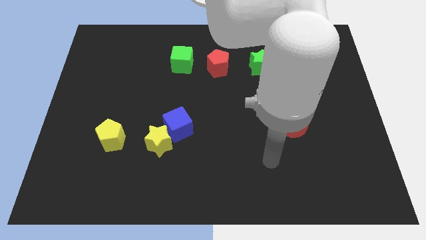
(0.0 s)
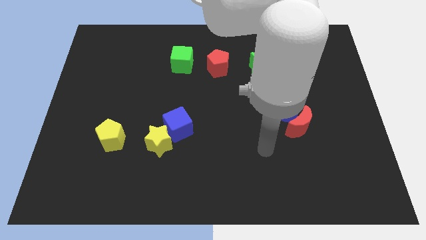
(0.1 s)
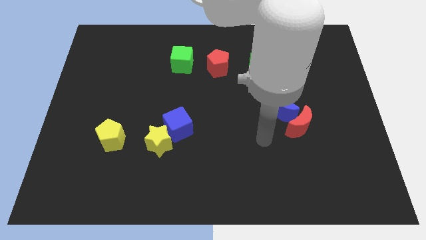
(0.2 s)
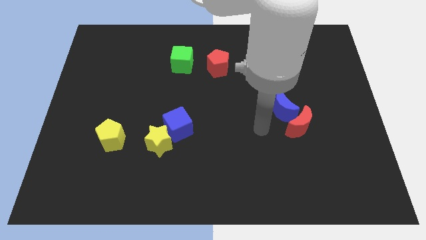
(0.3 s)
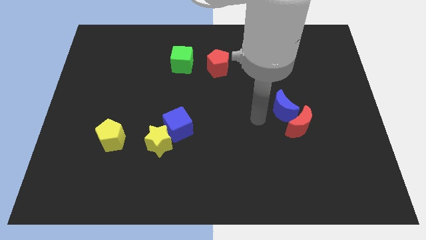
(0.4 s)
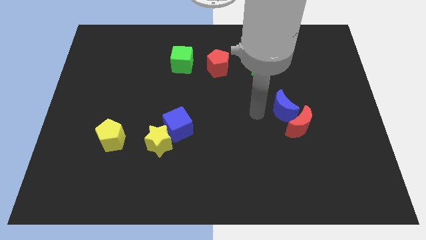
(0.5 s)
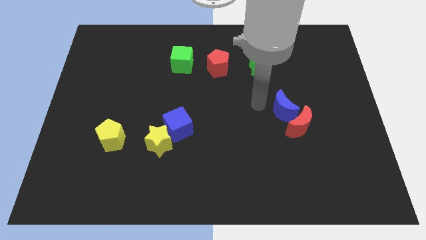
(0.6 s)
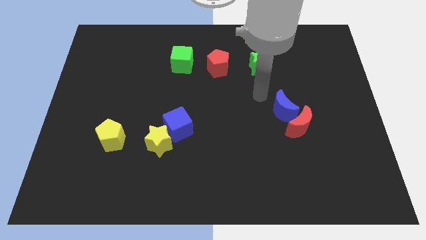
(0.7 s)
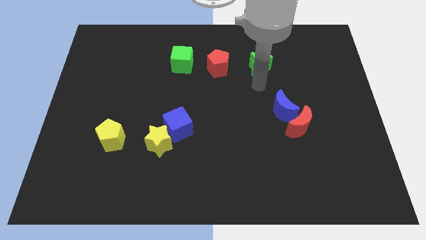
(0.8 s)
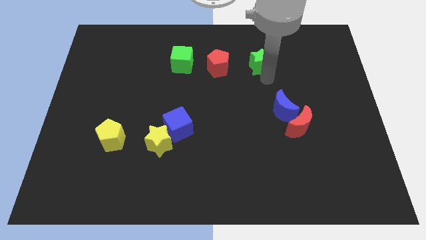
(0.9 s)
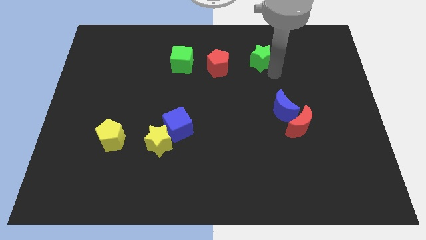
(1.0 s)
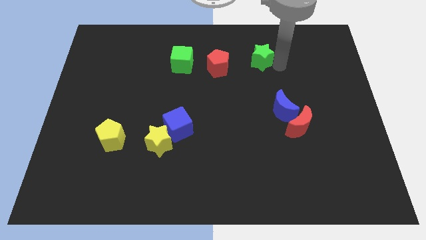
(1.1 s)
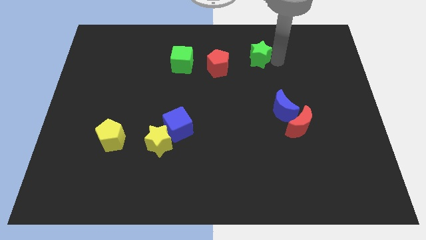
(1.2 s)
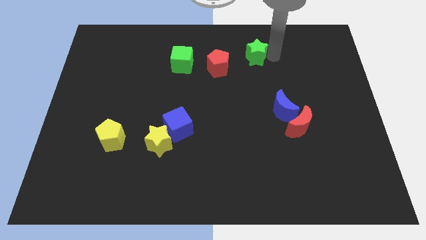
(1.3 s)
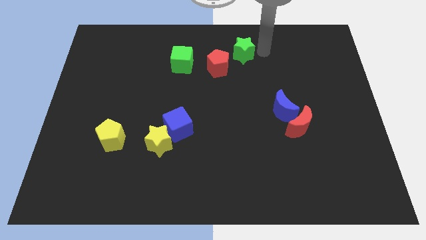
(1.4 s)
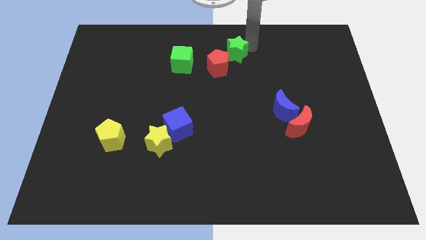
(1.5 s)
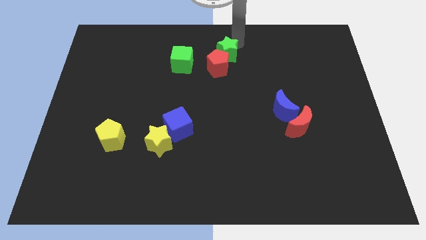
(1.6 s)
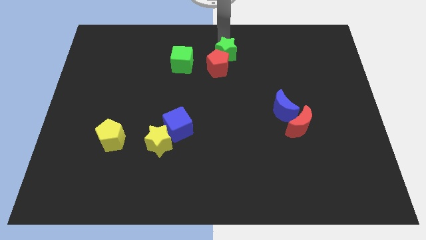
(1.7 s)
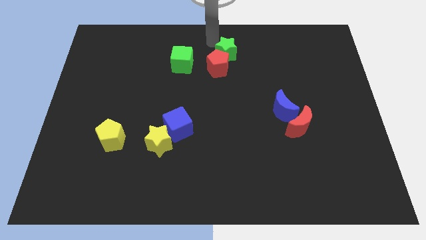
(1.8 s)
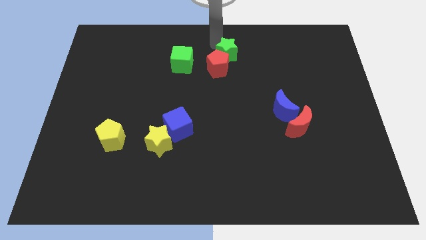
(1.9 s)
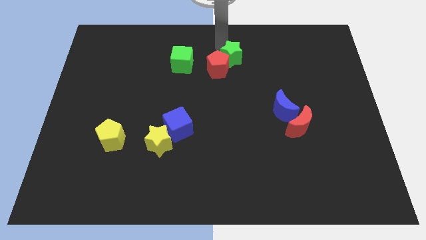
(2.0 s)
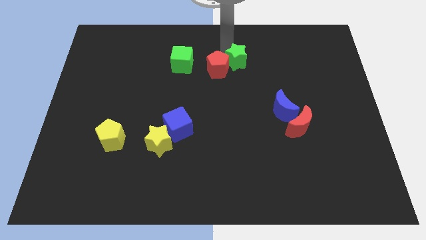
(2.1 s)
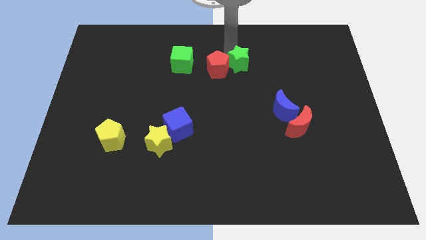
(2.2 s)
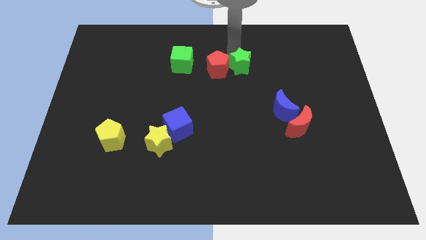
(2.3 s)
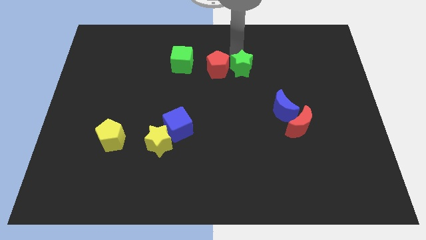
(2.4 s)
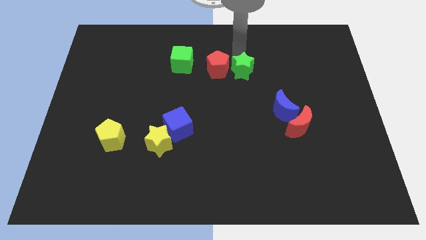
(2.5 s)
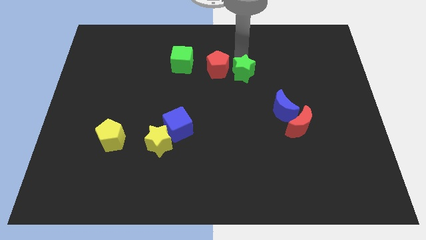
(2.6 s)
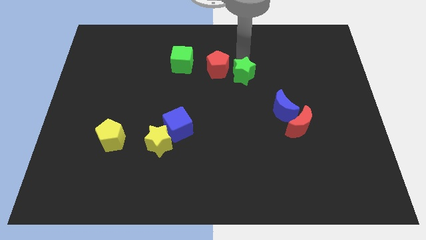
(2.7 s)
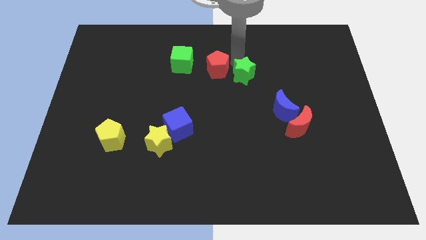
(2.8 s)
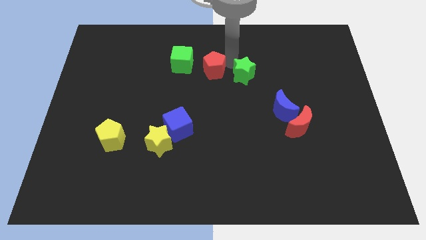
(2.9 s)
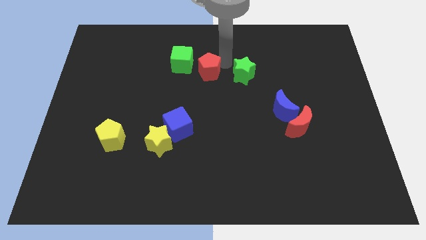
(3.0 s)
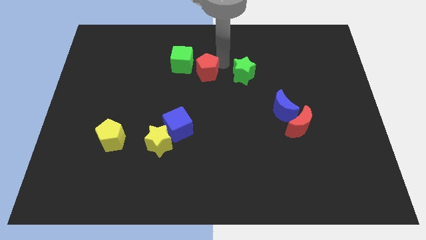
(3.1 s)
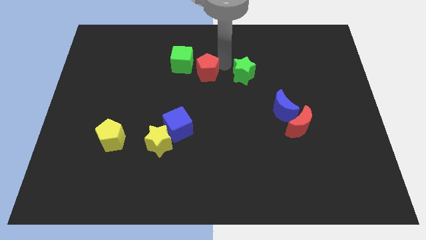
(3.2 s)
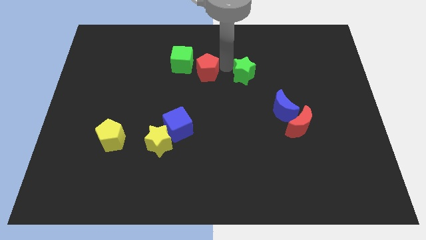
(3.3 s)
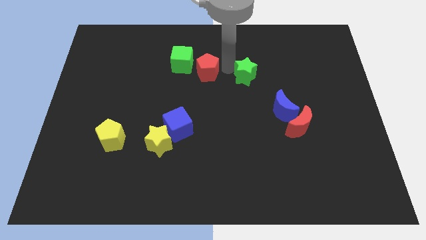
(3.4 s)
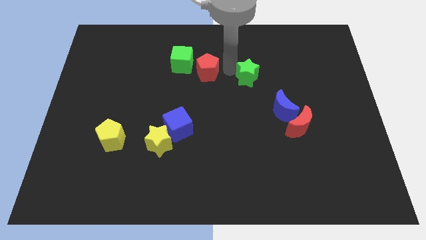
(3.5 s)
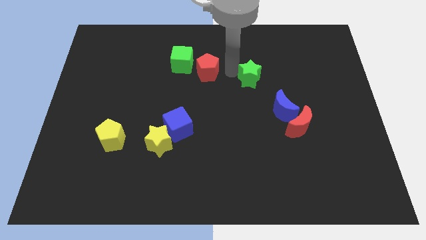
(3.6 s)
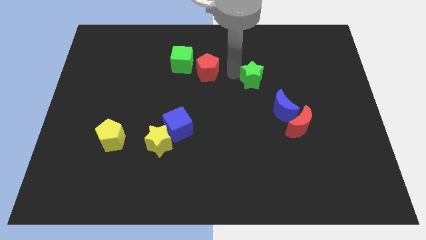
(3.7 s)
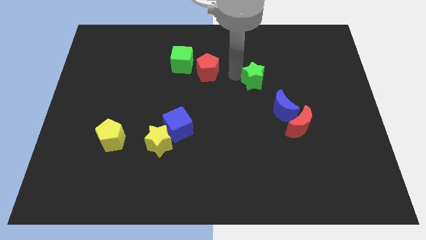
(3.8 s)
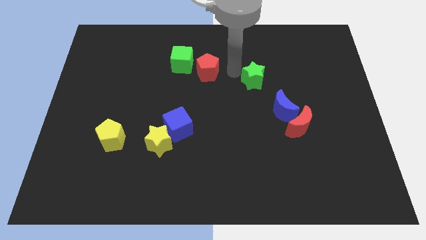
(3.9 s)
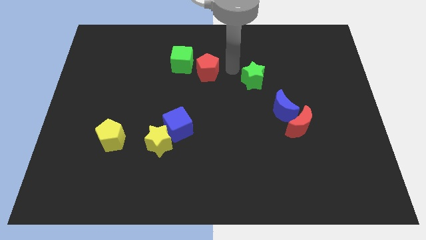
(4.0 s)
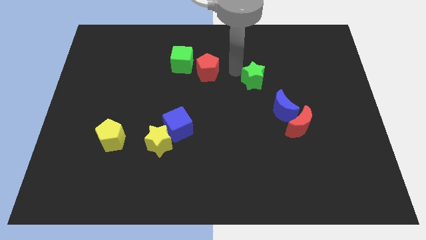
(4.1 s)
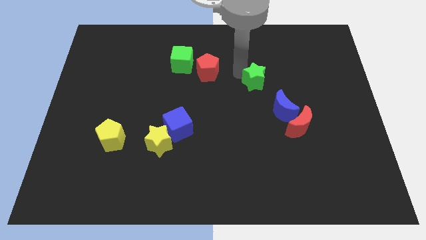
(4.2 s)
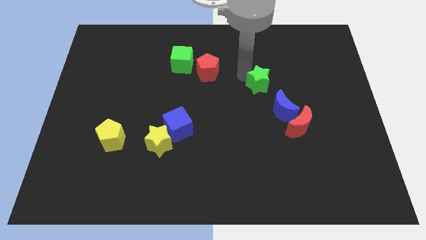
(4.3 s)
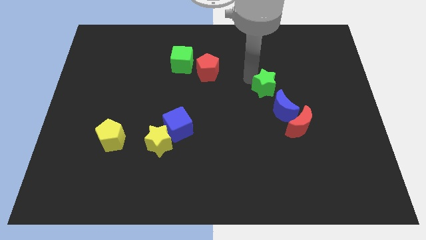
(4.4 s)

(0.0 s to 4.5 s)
move the green star somewhat downwards

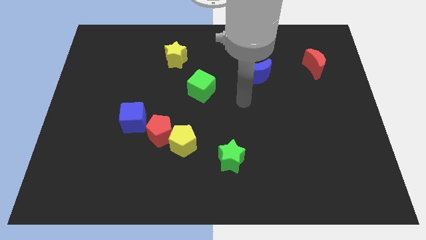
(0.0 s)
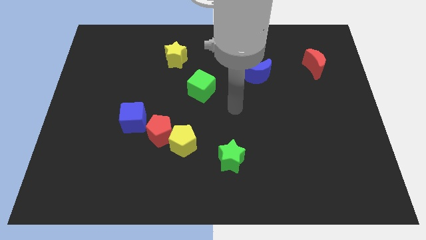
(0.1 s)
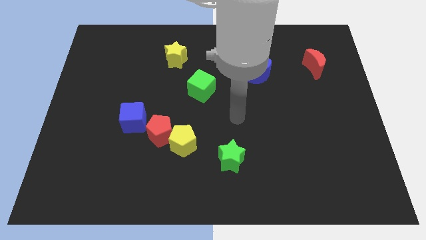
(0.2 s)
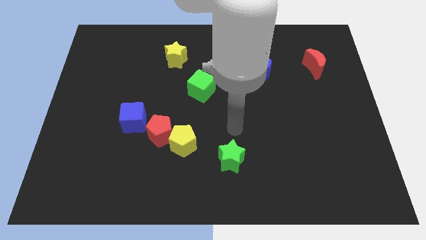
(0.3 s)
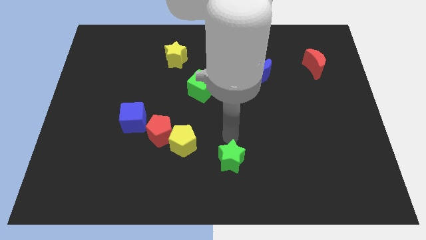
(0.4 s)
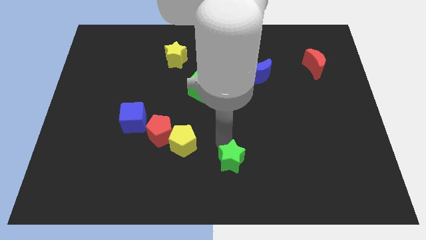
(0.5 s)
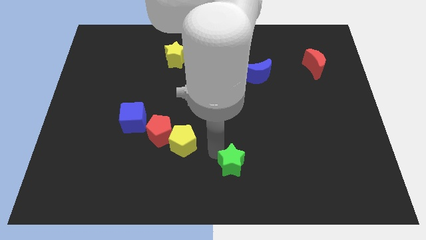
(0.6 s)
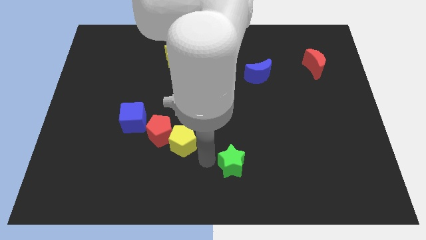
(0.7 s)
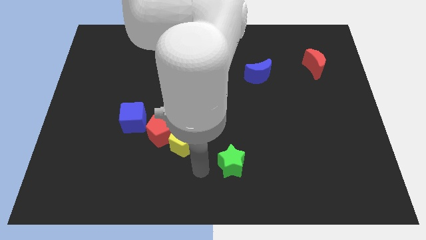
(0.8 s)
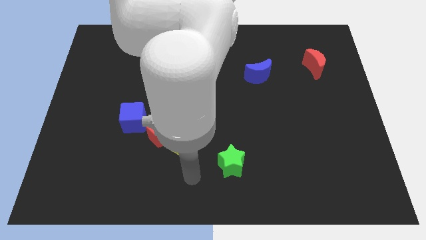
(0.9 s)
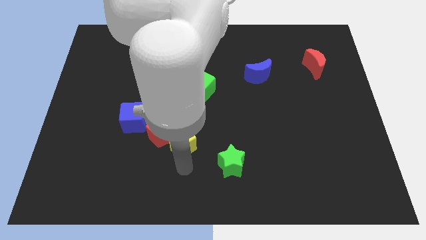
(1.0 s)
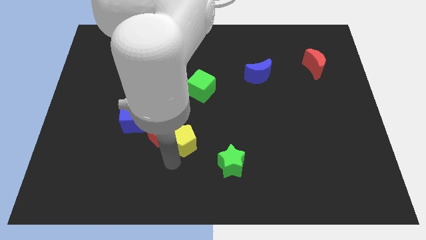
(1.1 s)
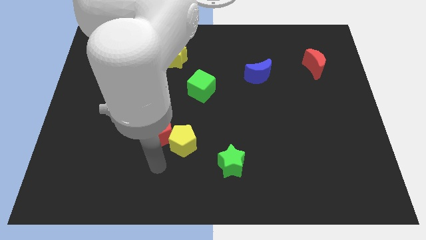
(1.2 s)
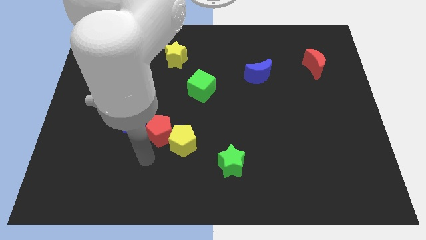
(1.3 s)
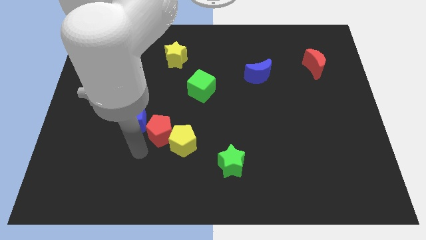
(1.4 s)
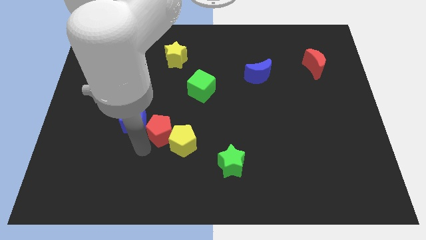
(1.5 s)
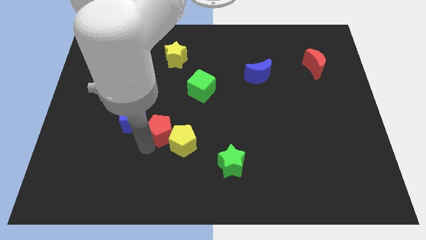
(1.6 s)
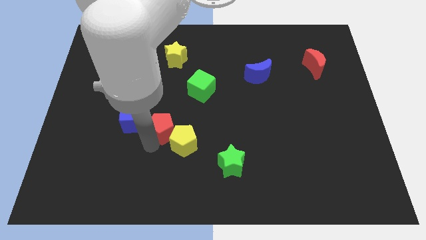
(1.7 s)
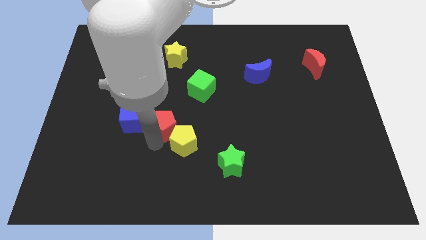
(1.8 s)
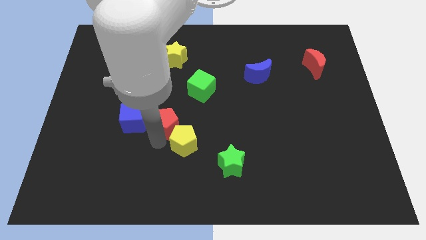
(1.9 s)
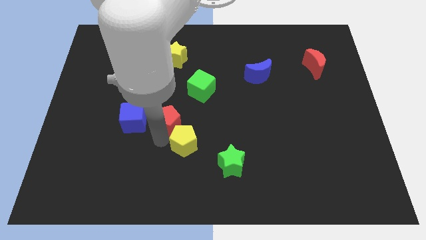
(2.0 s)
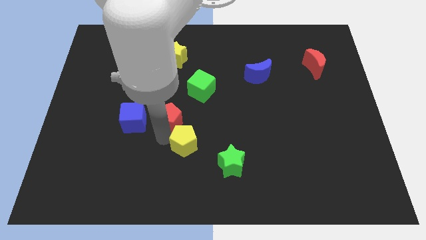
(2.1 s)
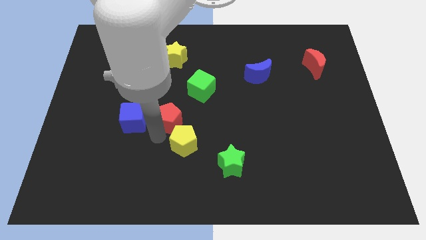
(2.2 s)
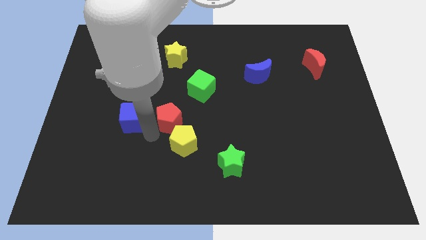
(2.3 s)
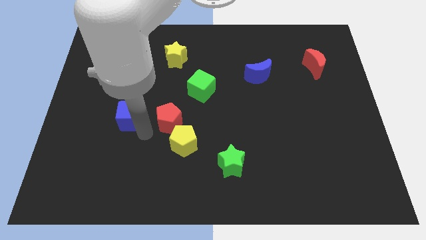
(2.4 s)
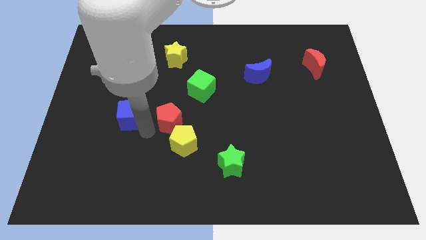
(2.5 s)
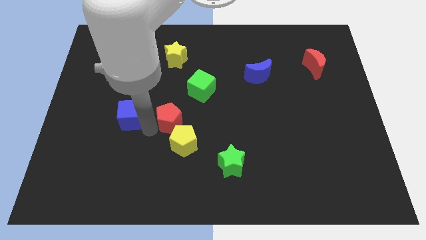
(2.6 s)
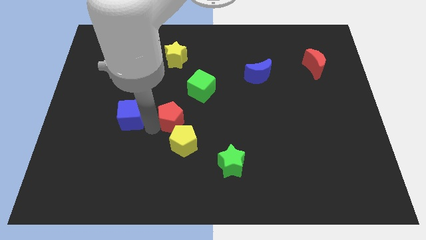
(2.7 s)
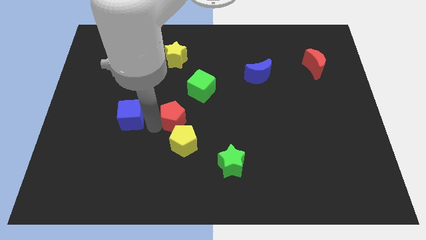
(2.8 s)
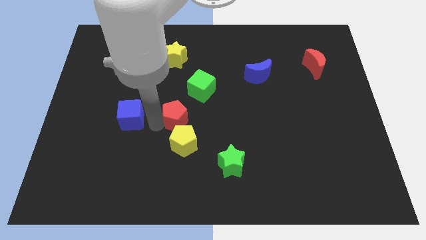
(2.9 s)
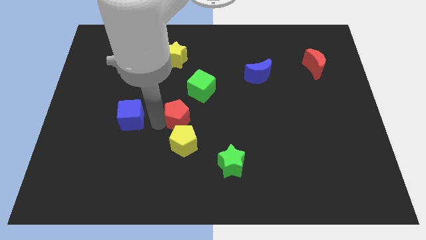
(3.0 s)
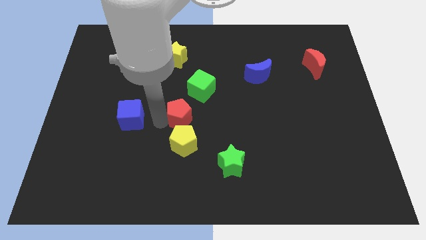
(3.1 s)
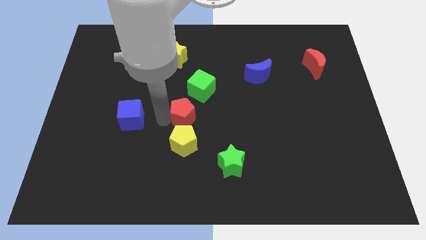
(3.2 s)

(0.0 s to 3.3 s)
slightly push the red pentagon diagonally upwards and to the right

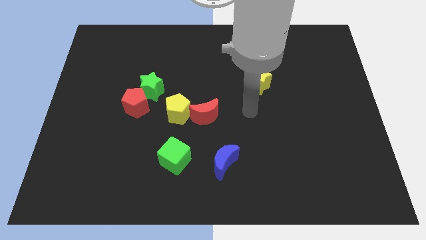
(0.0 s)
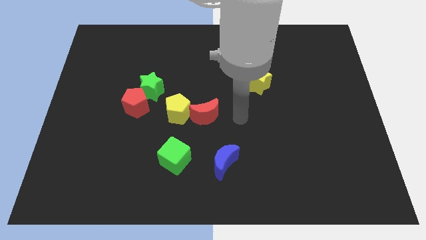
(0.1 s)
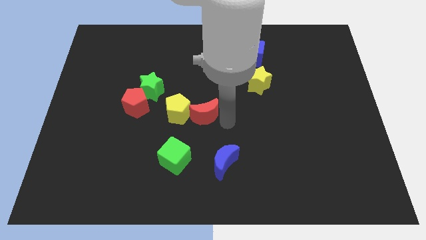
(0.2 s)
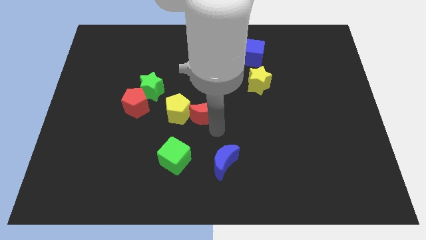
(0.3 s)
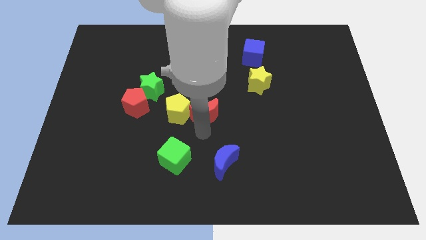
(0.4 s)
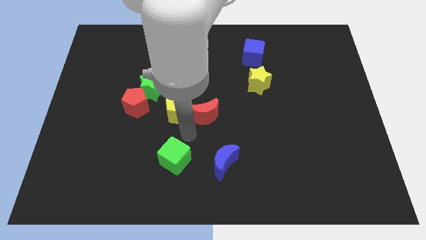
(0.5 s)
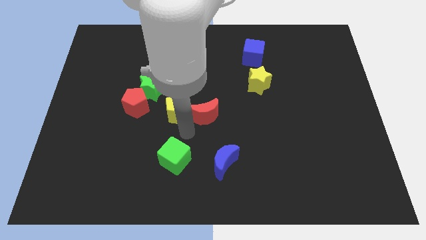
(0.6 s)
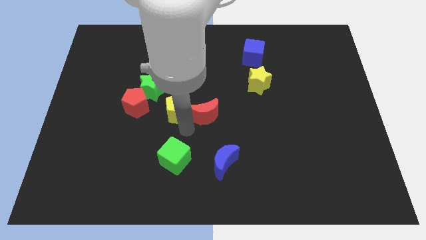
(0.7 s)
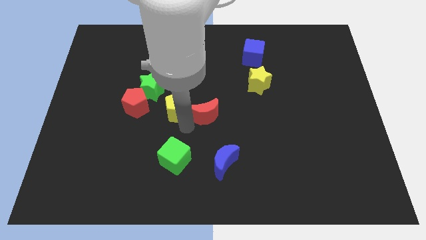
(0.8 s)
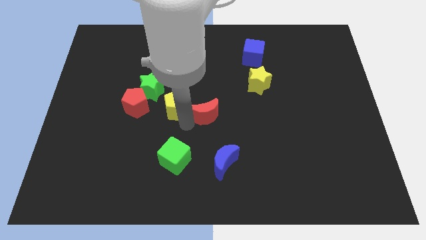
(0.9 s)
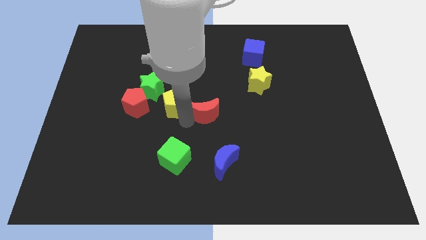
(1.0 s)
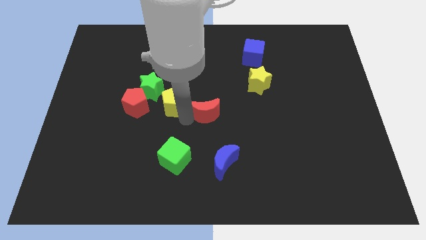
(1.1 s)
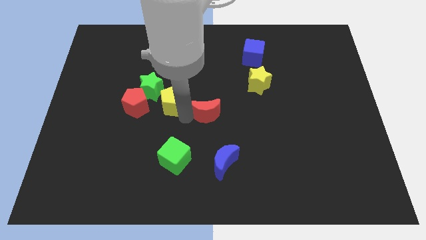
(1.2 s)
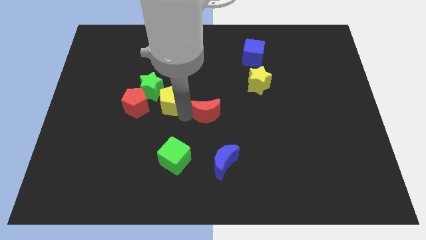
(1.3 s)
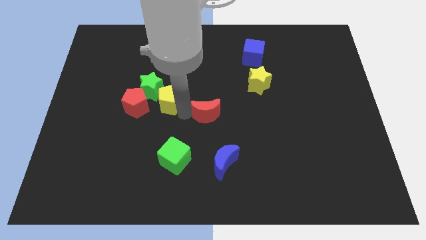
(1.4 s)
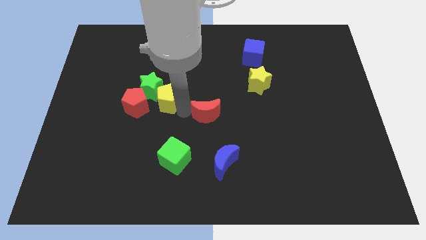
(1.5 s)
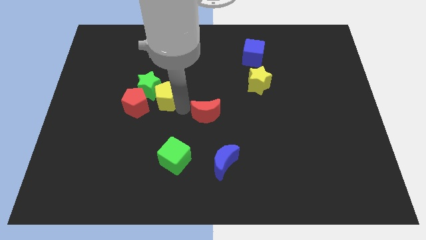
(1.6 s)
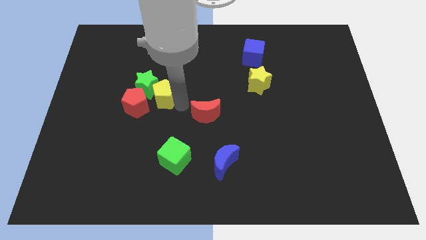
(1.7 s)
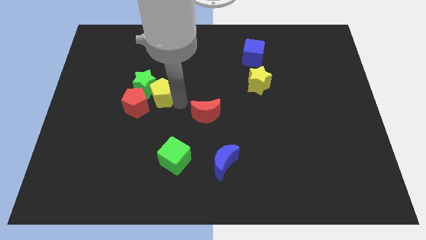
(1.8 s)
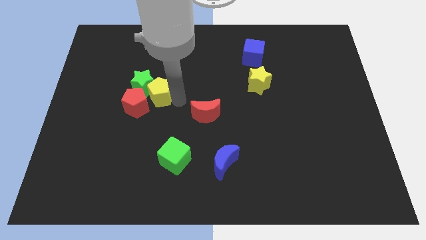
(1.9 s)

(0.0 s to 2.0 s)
slide the yellow pentagon a bit up and left diagonally
